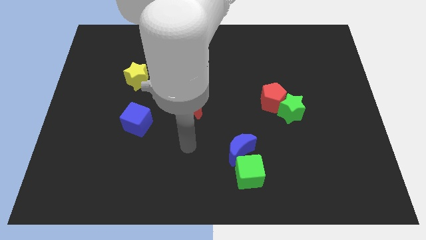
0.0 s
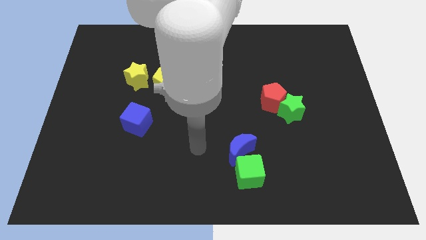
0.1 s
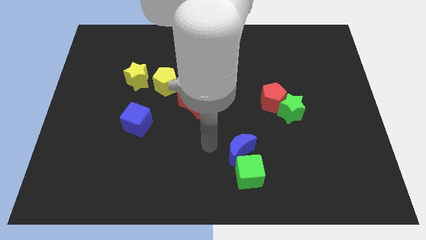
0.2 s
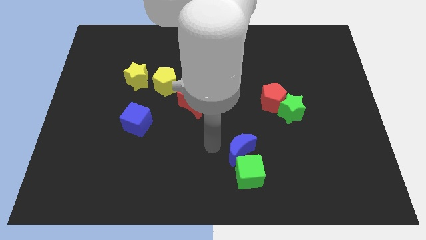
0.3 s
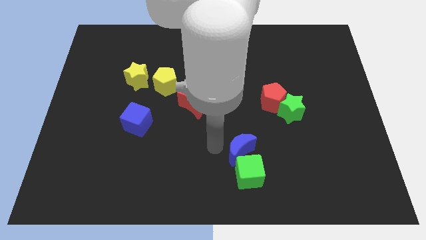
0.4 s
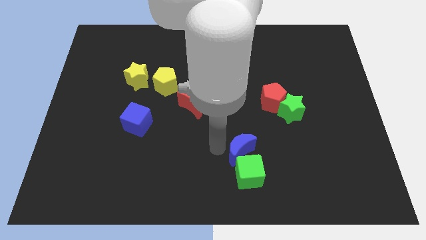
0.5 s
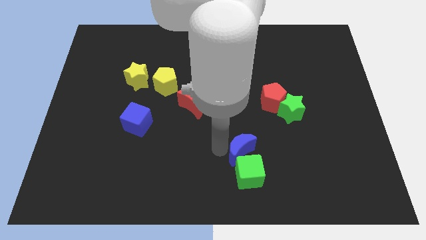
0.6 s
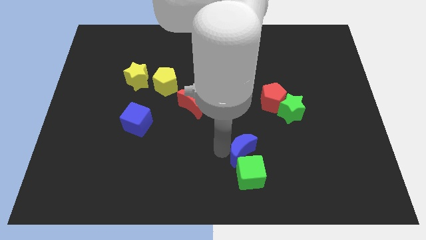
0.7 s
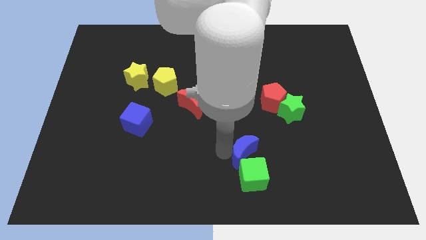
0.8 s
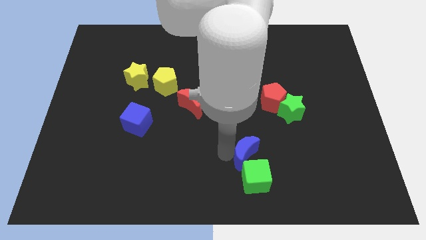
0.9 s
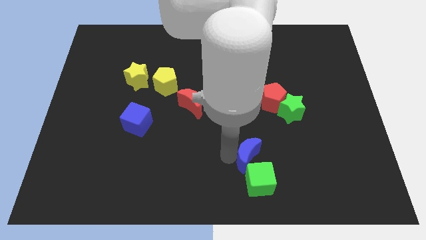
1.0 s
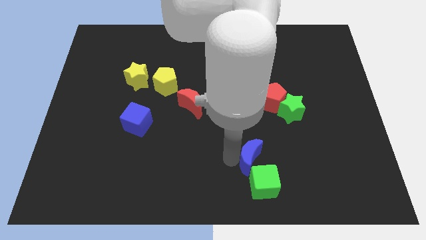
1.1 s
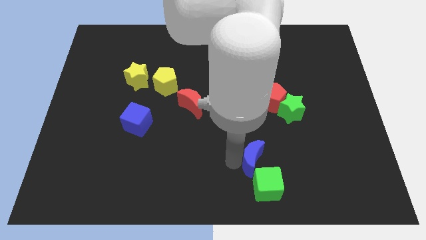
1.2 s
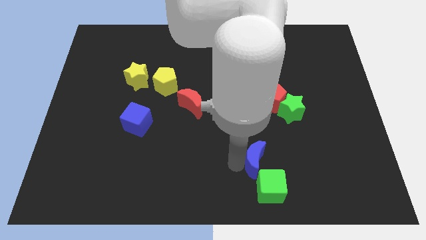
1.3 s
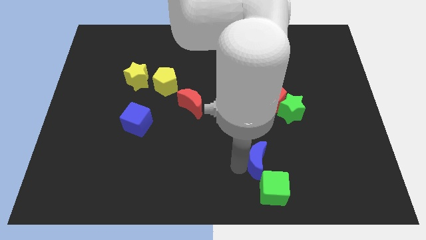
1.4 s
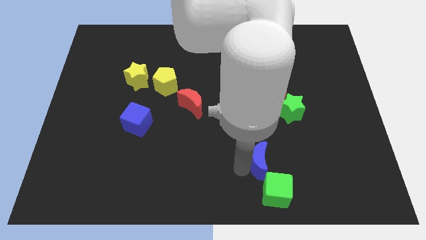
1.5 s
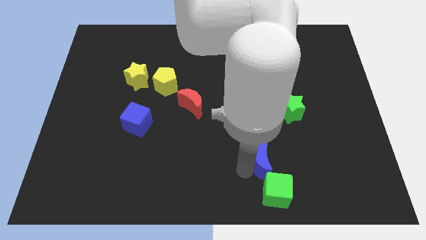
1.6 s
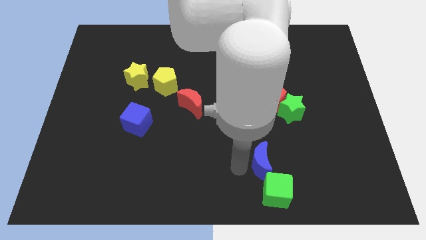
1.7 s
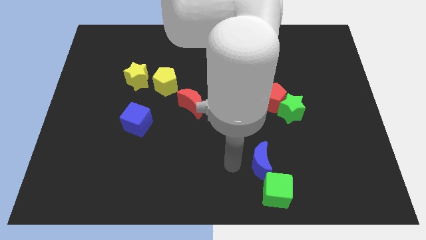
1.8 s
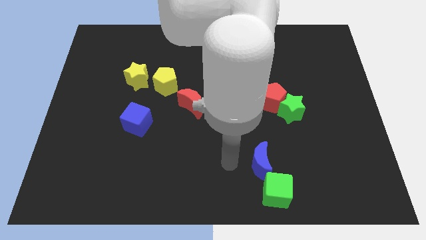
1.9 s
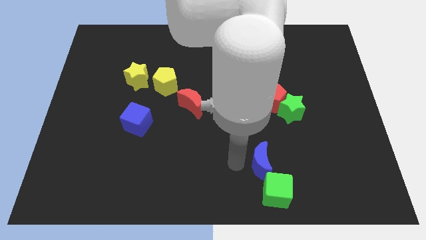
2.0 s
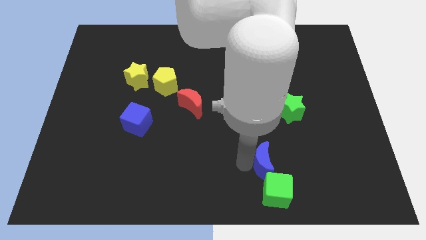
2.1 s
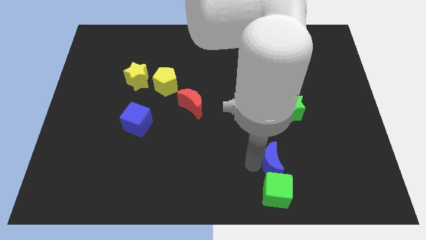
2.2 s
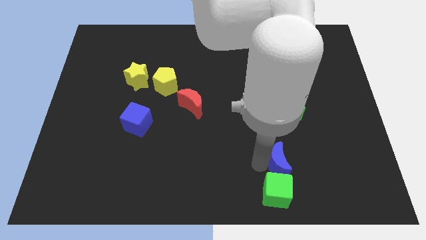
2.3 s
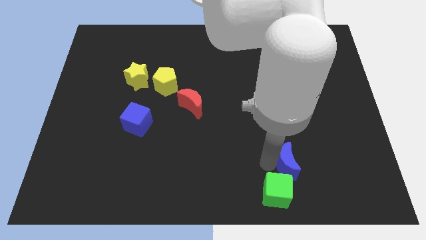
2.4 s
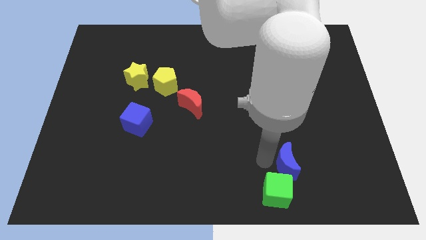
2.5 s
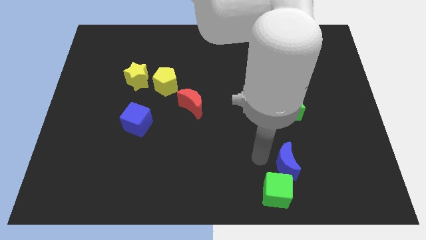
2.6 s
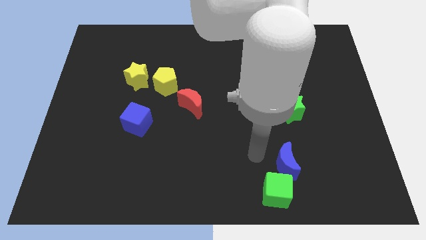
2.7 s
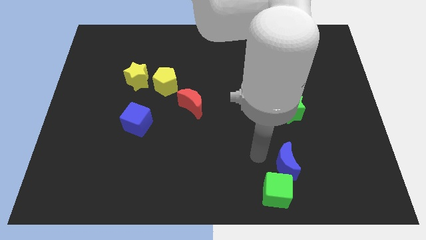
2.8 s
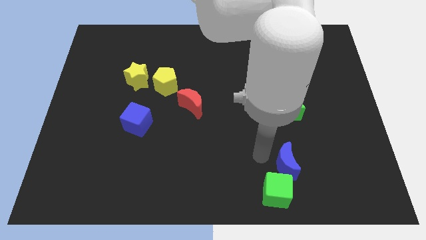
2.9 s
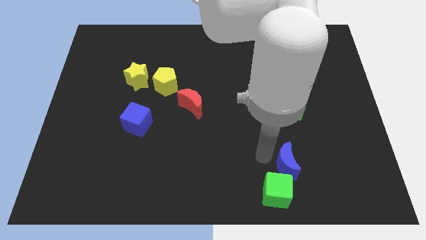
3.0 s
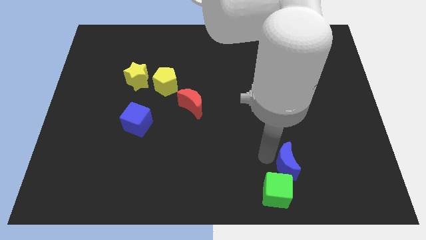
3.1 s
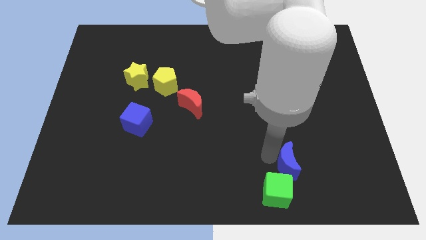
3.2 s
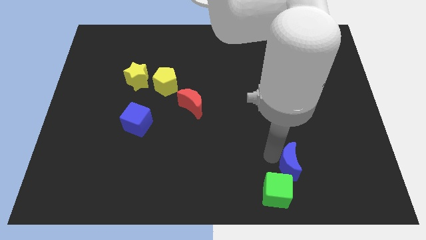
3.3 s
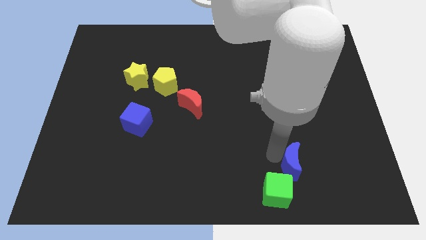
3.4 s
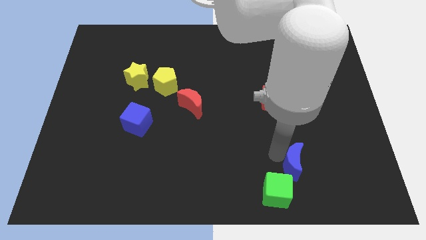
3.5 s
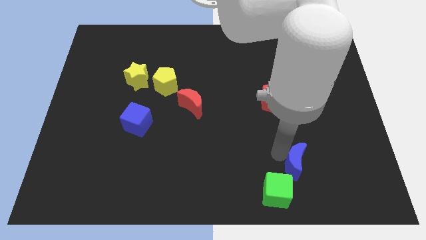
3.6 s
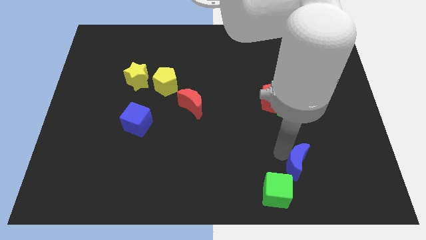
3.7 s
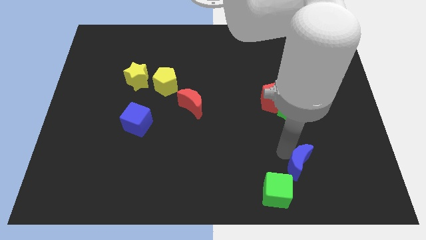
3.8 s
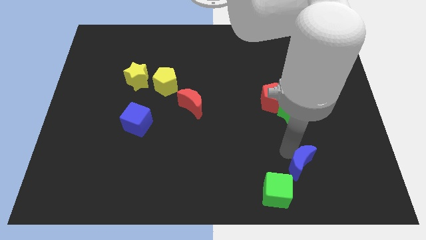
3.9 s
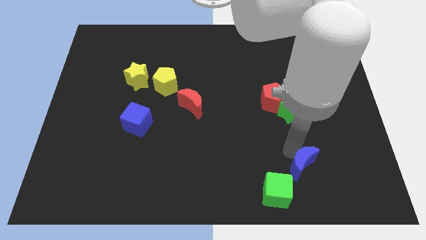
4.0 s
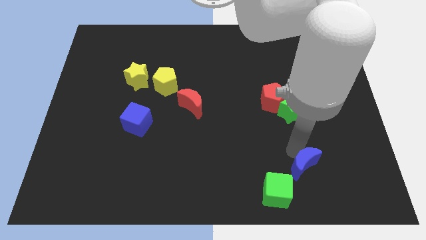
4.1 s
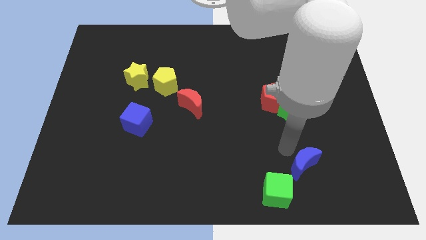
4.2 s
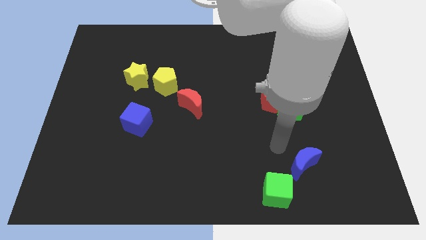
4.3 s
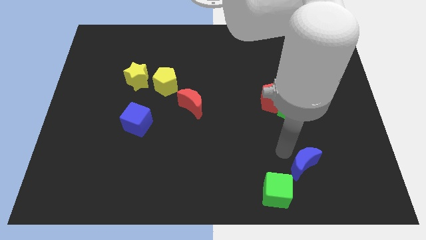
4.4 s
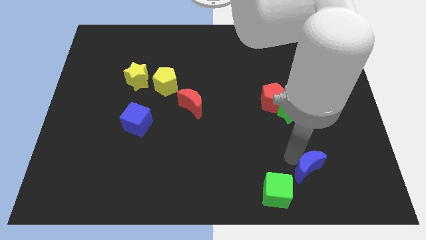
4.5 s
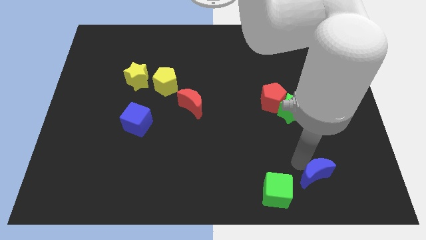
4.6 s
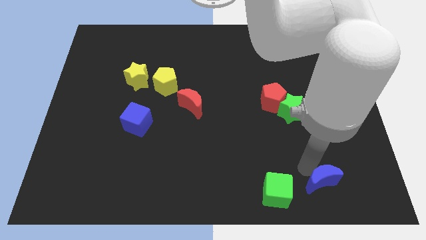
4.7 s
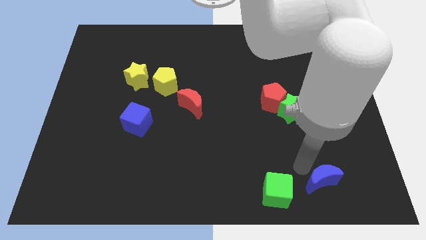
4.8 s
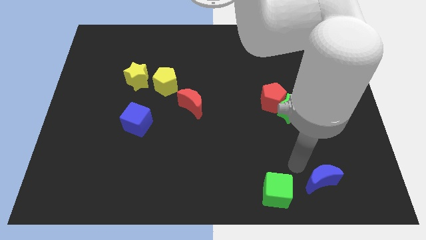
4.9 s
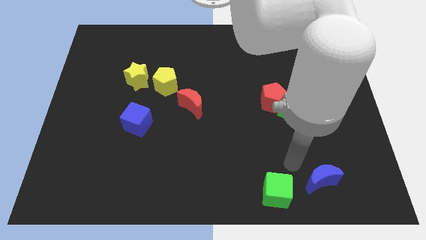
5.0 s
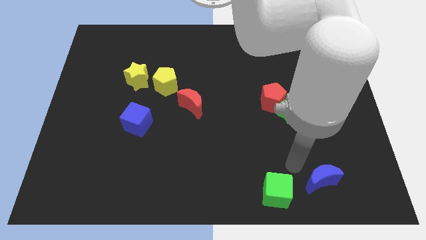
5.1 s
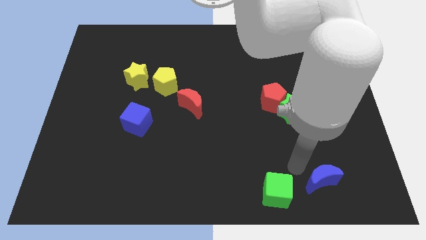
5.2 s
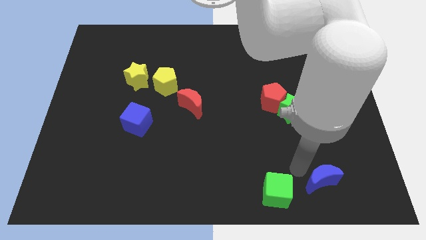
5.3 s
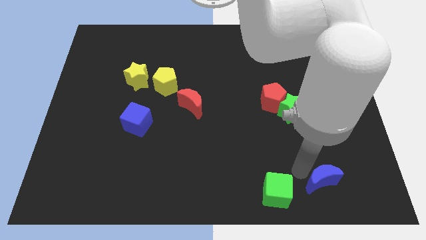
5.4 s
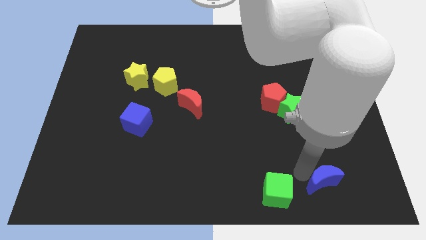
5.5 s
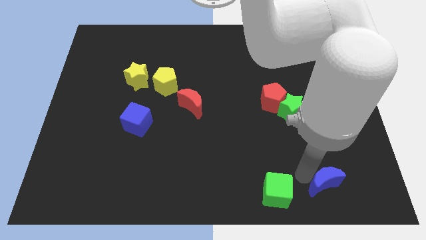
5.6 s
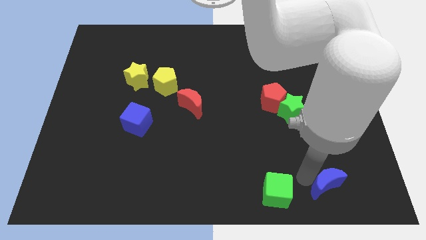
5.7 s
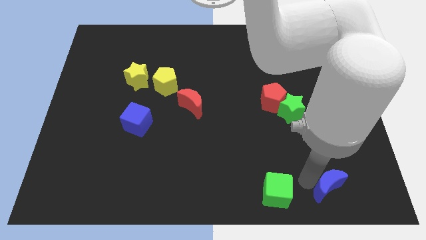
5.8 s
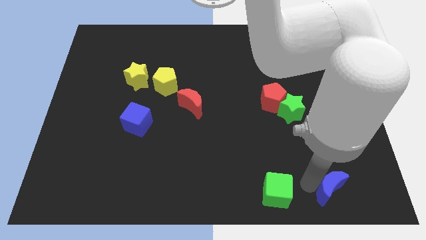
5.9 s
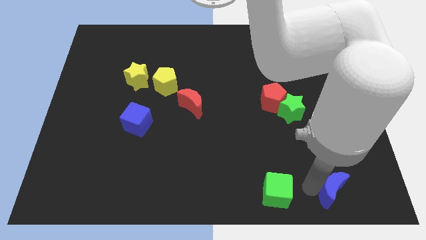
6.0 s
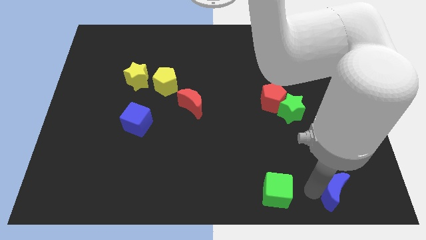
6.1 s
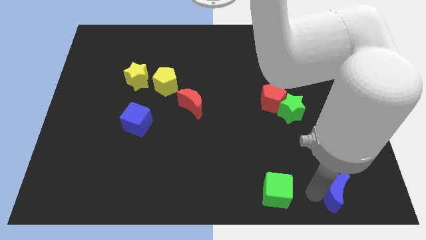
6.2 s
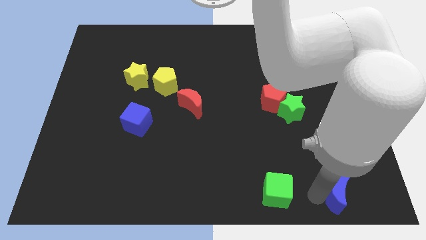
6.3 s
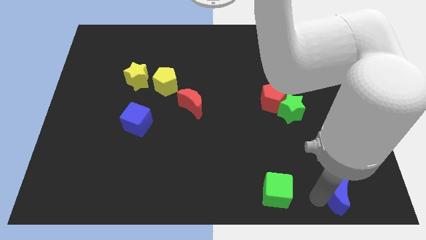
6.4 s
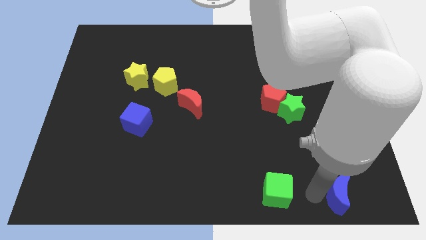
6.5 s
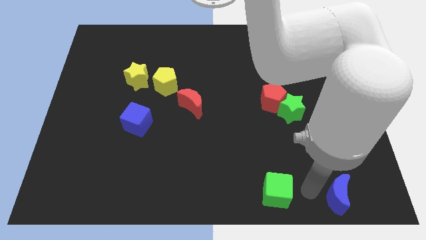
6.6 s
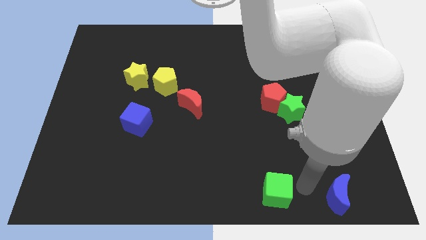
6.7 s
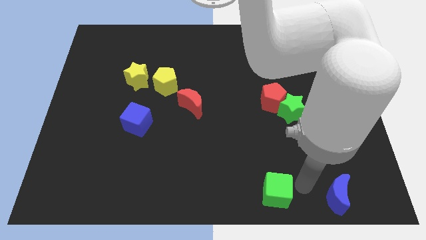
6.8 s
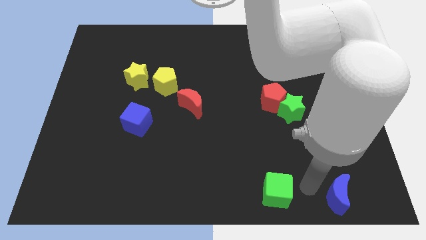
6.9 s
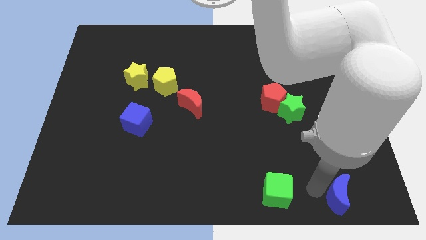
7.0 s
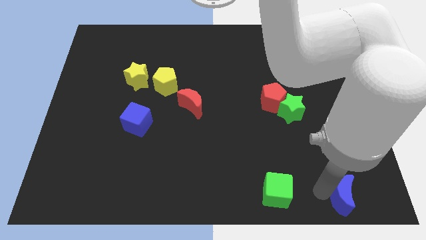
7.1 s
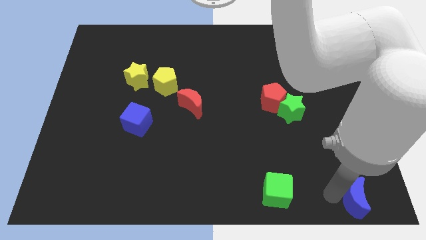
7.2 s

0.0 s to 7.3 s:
put the blue moon to the bottom right
